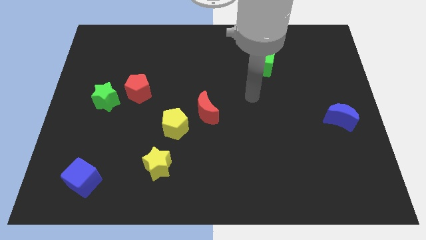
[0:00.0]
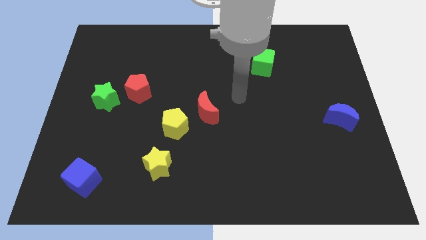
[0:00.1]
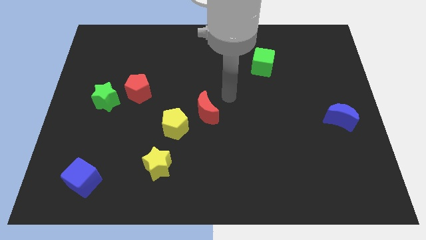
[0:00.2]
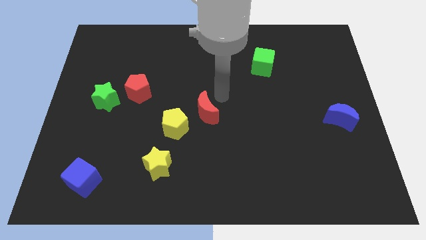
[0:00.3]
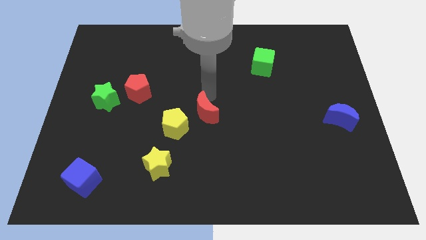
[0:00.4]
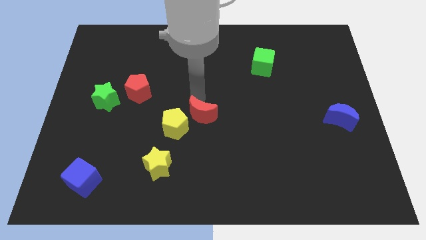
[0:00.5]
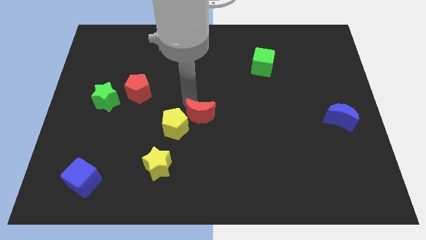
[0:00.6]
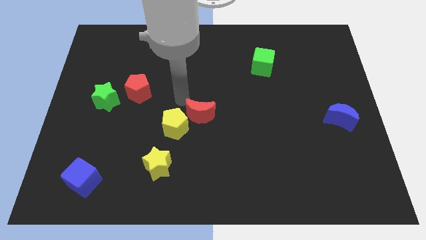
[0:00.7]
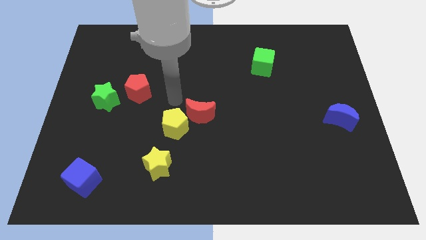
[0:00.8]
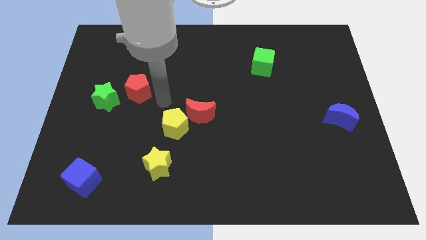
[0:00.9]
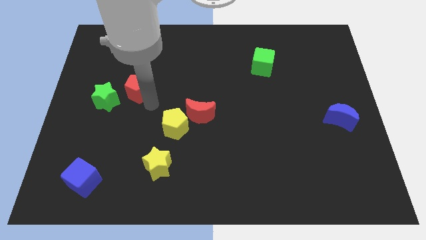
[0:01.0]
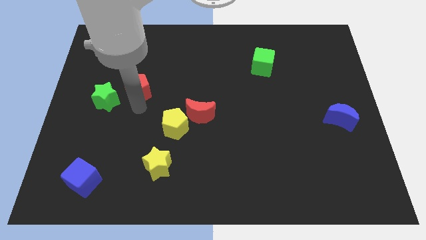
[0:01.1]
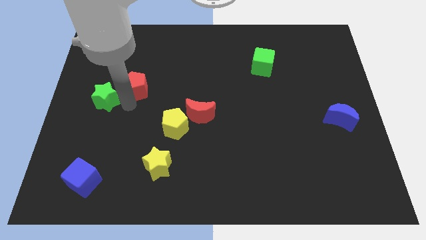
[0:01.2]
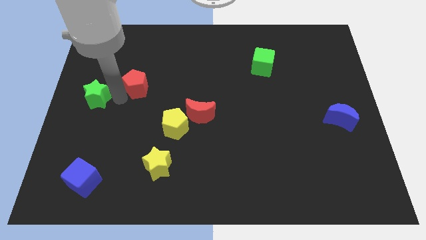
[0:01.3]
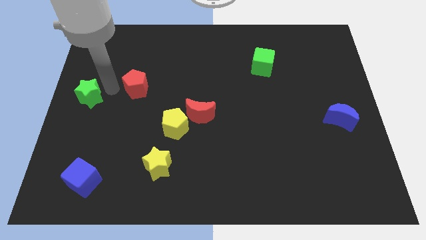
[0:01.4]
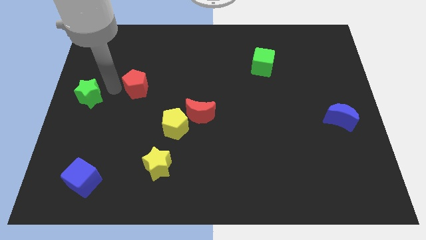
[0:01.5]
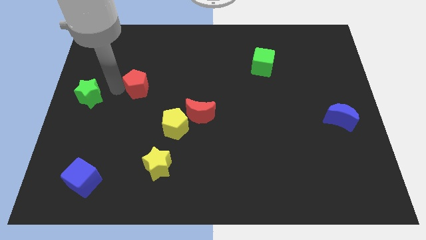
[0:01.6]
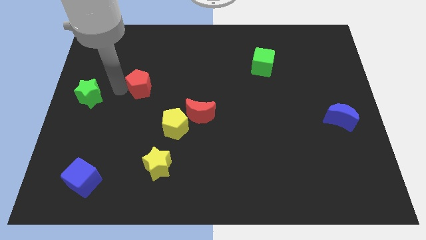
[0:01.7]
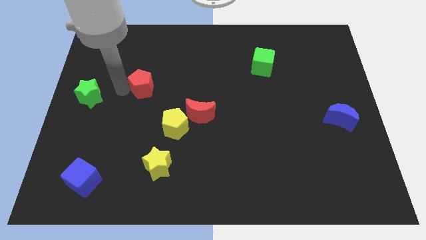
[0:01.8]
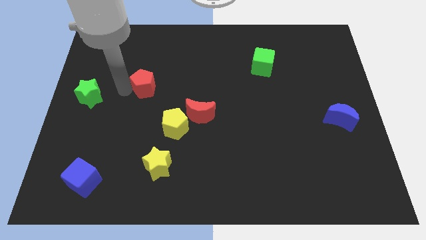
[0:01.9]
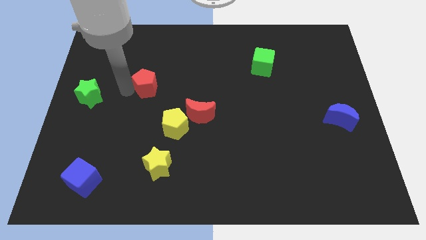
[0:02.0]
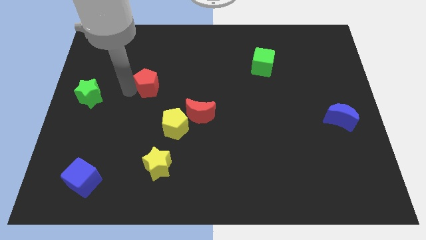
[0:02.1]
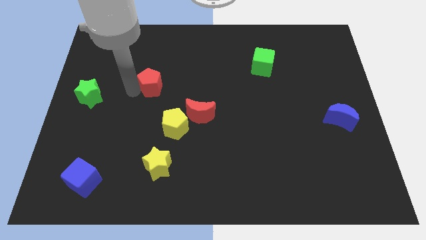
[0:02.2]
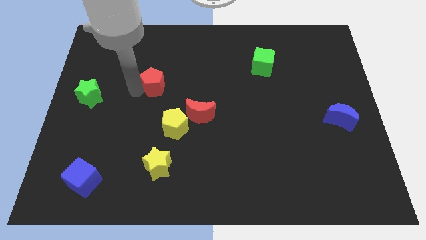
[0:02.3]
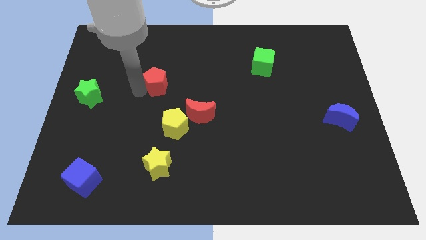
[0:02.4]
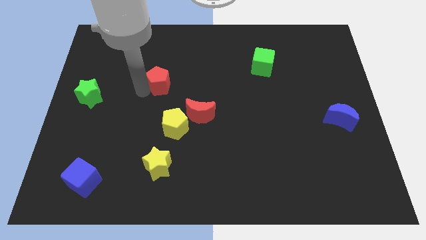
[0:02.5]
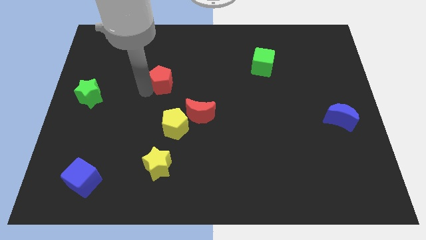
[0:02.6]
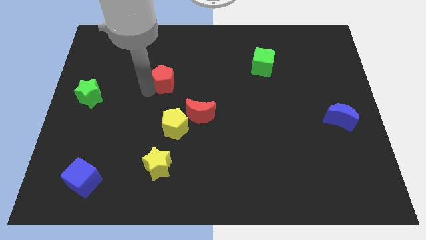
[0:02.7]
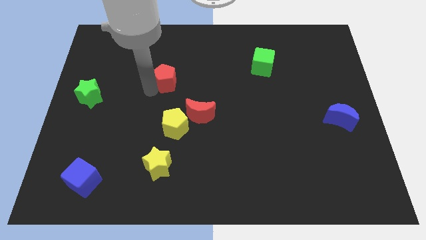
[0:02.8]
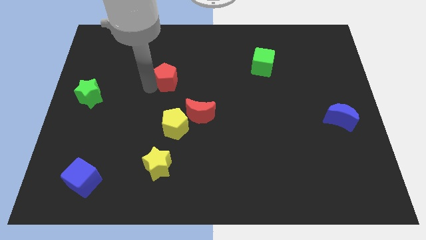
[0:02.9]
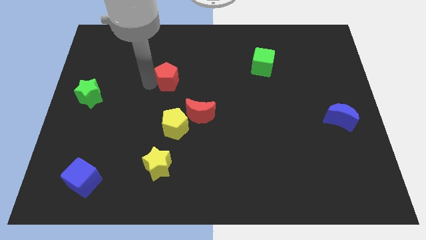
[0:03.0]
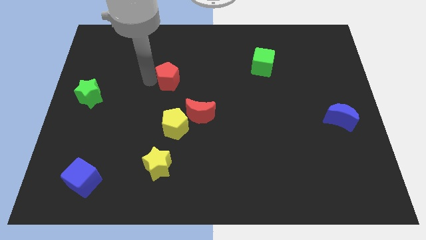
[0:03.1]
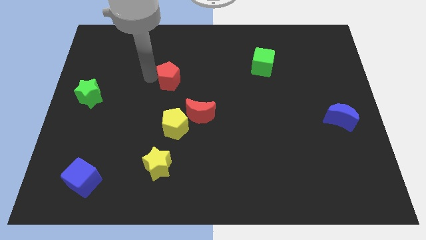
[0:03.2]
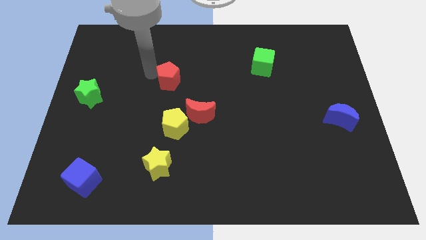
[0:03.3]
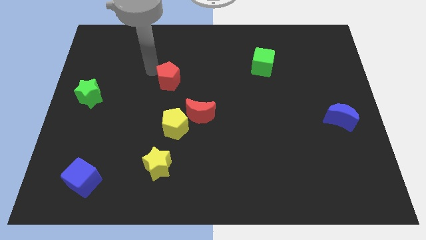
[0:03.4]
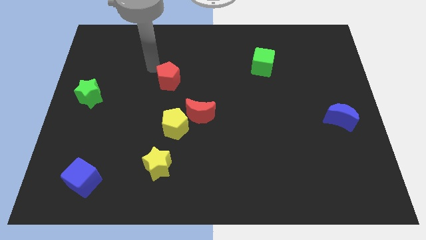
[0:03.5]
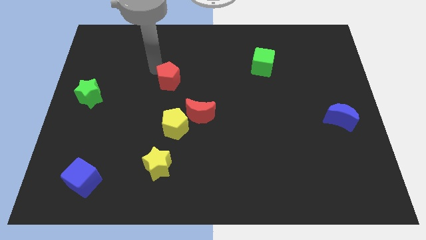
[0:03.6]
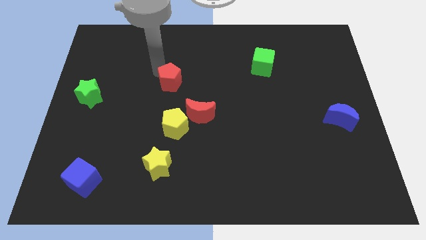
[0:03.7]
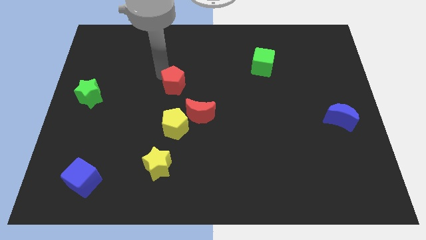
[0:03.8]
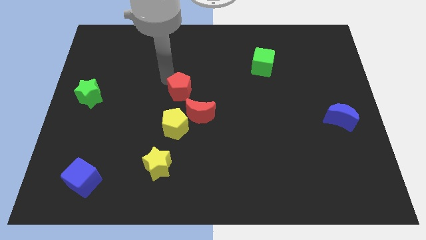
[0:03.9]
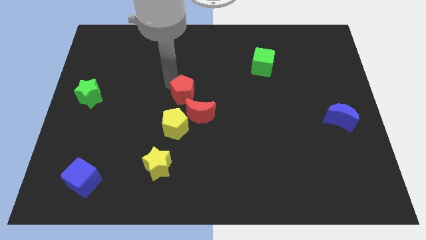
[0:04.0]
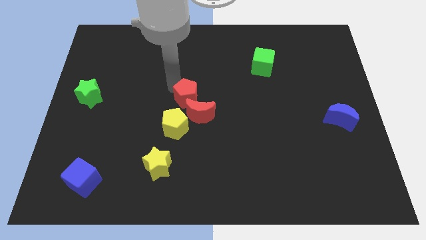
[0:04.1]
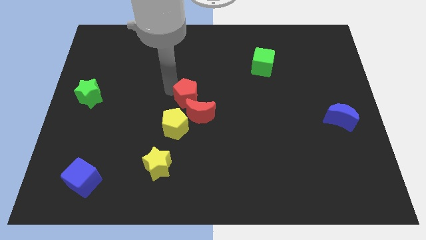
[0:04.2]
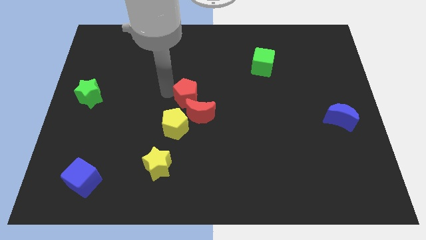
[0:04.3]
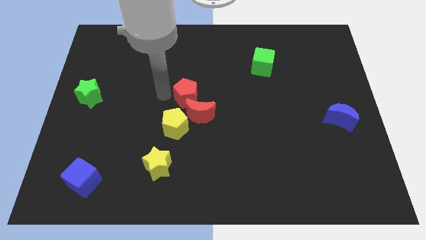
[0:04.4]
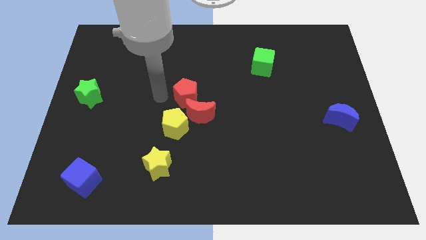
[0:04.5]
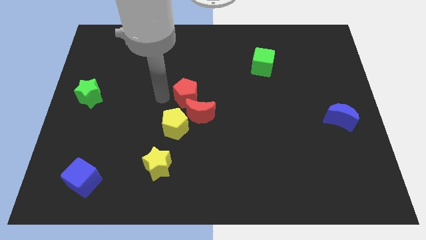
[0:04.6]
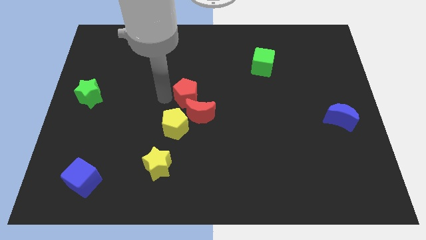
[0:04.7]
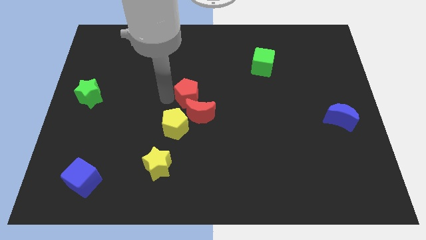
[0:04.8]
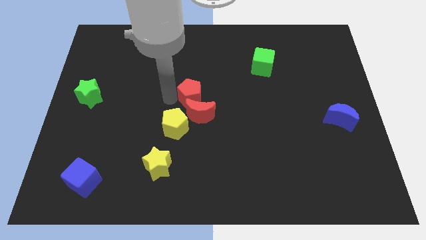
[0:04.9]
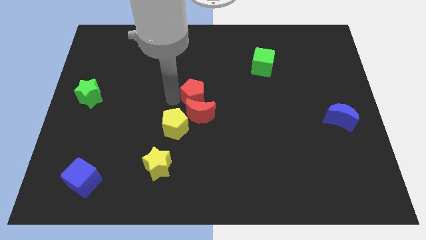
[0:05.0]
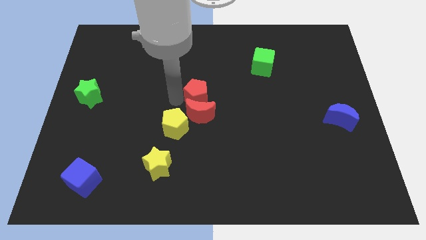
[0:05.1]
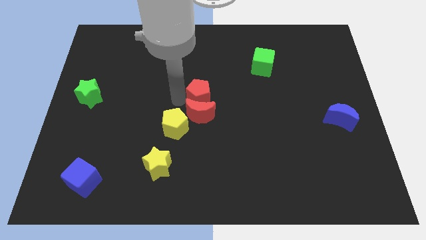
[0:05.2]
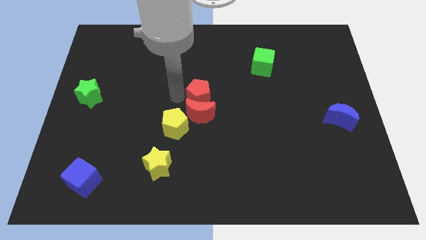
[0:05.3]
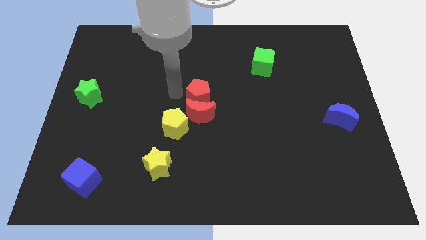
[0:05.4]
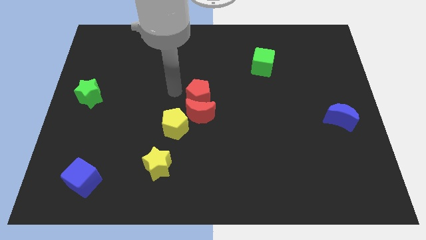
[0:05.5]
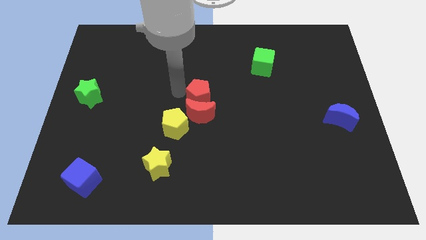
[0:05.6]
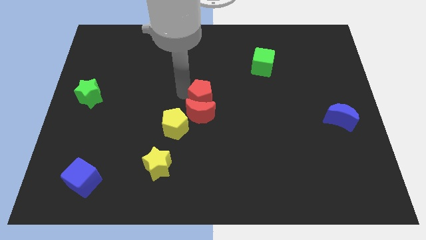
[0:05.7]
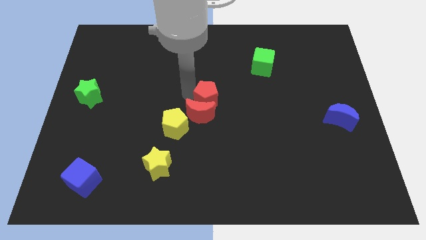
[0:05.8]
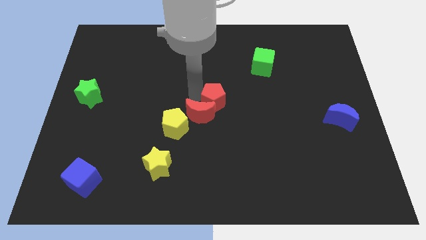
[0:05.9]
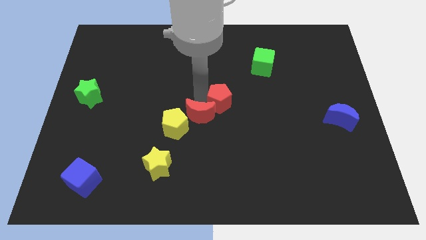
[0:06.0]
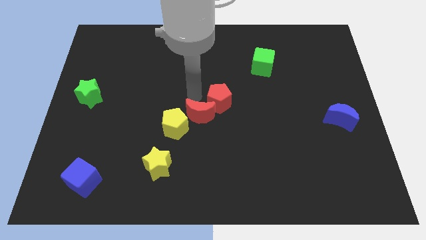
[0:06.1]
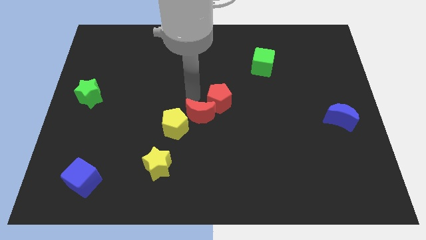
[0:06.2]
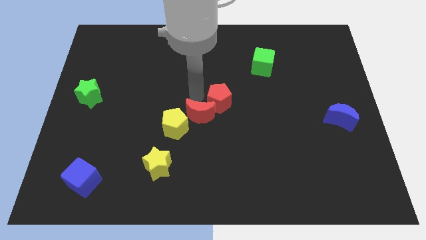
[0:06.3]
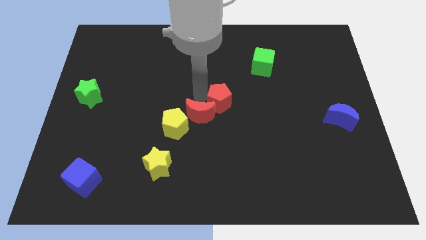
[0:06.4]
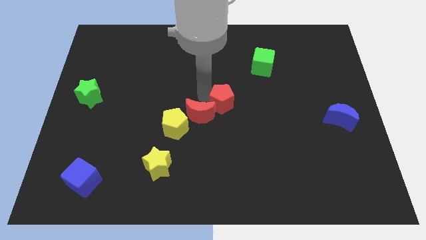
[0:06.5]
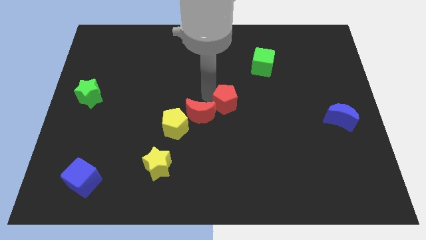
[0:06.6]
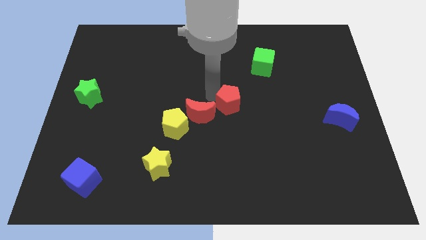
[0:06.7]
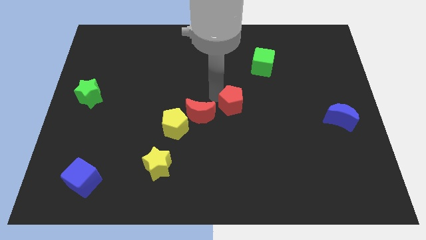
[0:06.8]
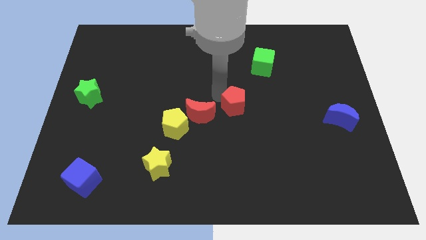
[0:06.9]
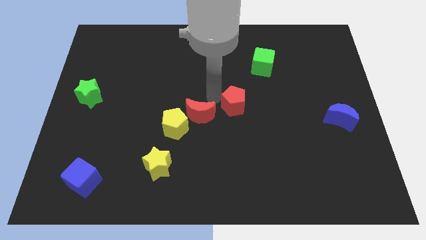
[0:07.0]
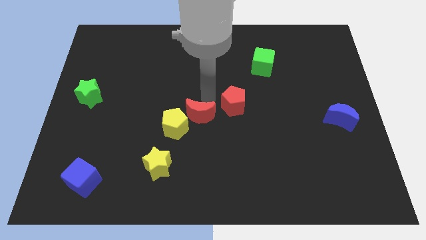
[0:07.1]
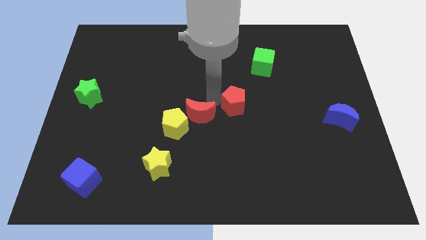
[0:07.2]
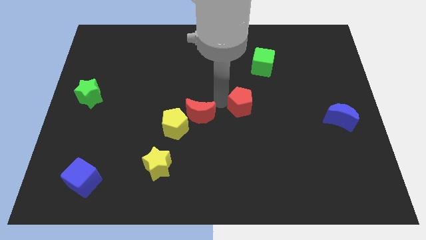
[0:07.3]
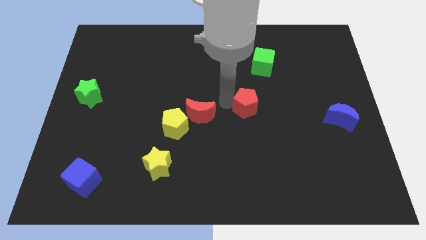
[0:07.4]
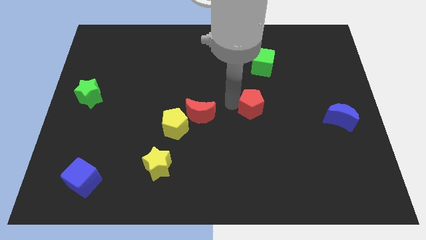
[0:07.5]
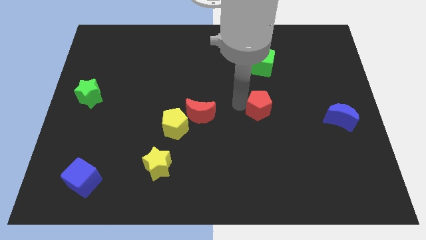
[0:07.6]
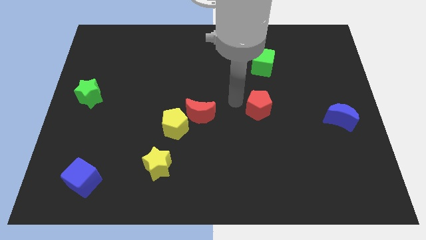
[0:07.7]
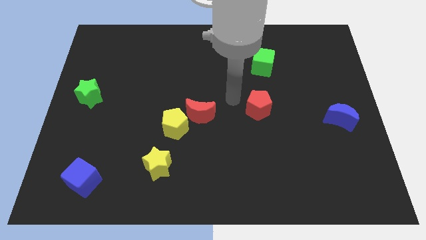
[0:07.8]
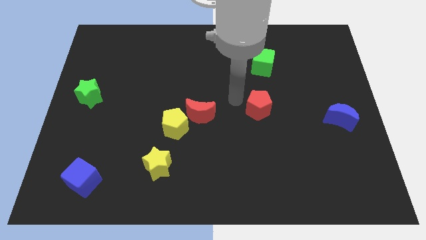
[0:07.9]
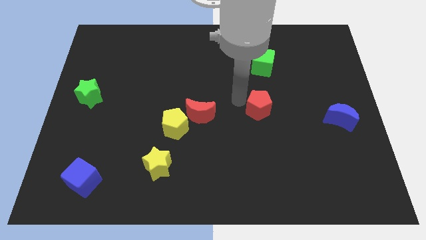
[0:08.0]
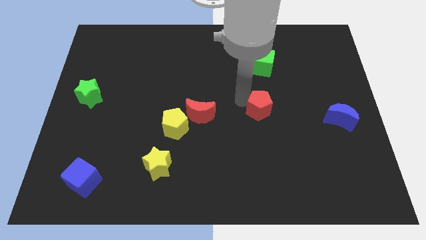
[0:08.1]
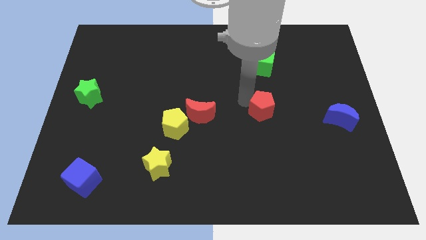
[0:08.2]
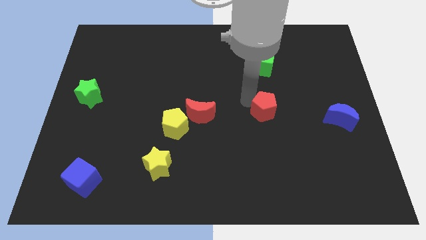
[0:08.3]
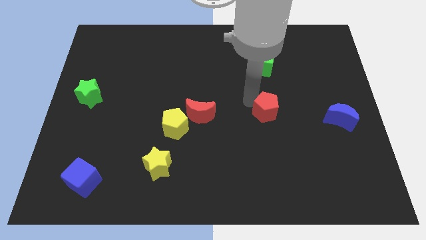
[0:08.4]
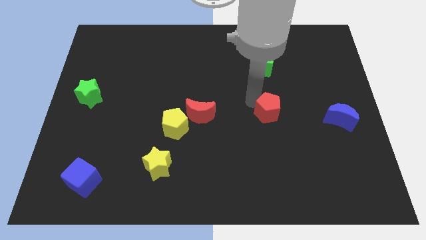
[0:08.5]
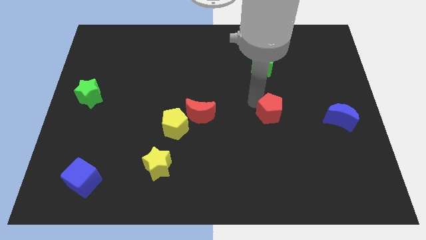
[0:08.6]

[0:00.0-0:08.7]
slide the red pentagon left of the blue moon
